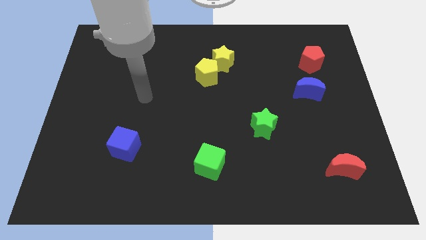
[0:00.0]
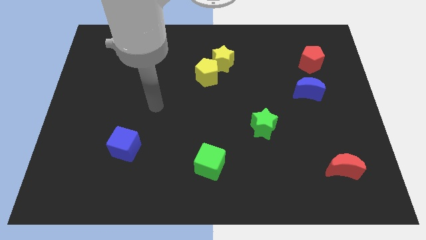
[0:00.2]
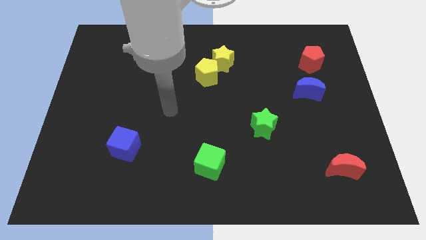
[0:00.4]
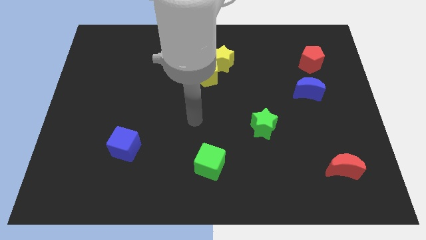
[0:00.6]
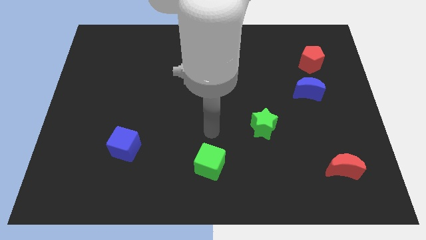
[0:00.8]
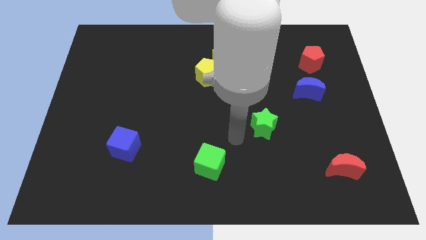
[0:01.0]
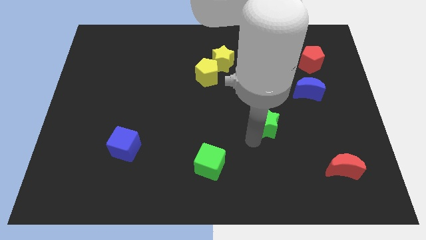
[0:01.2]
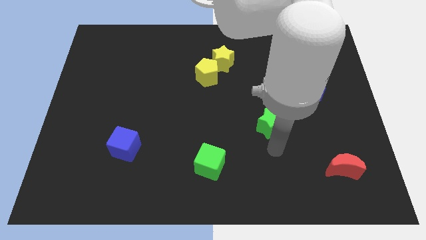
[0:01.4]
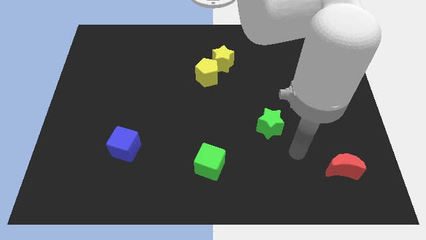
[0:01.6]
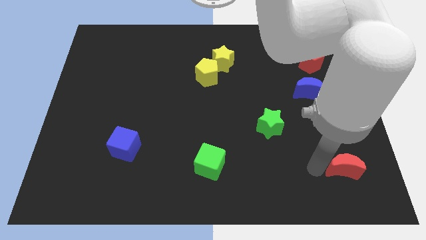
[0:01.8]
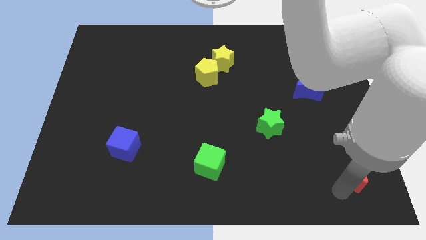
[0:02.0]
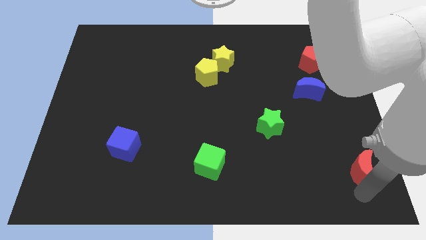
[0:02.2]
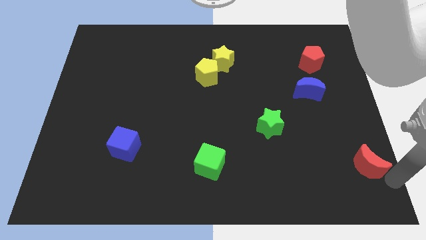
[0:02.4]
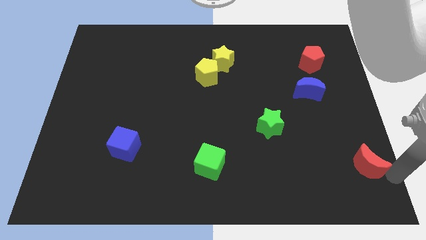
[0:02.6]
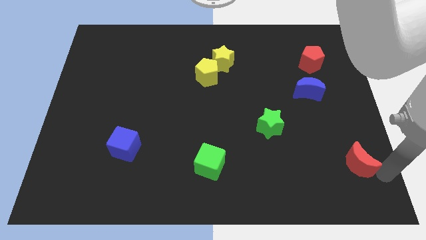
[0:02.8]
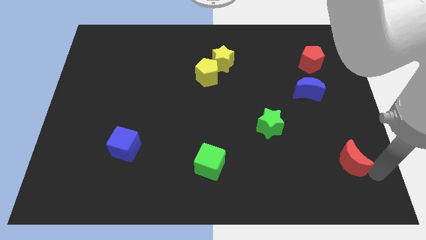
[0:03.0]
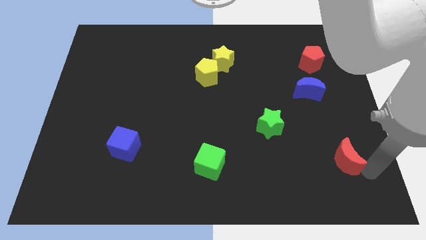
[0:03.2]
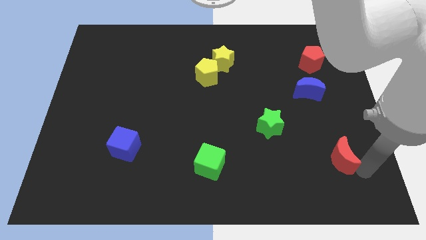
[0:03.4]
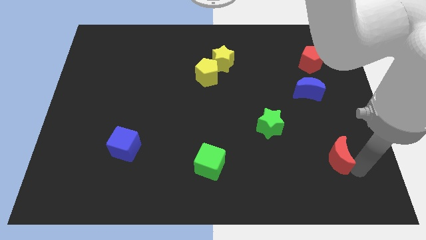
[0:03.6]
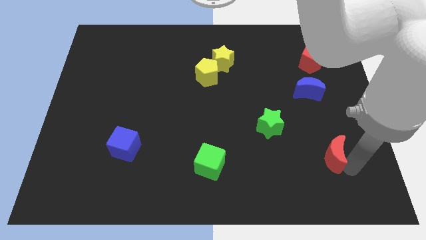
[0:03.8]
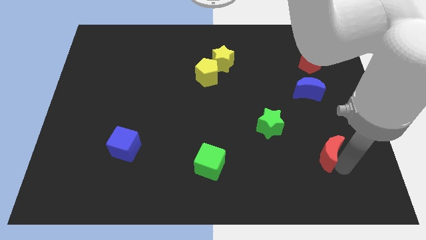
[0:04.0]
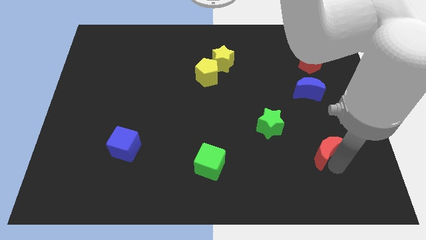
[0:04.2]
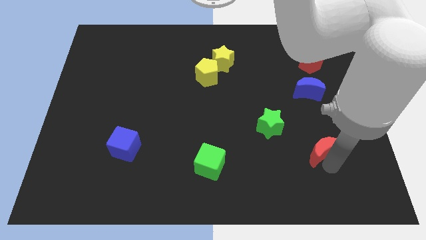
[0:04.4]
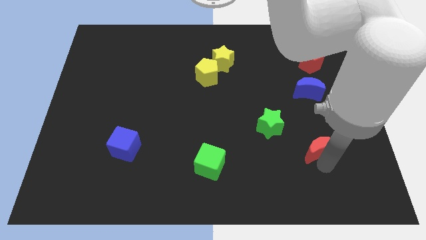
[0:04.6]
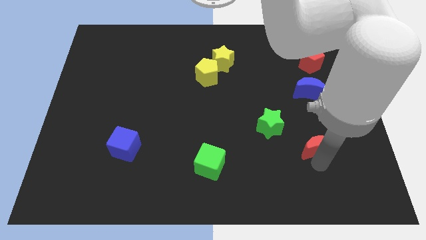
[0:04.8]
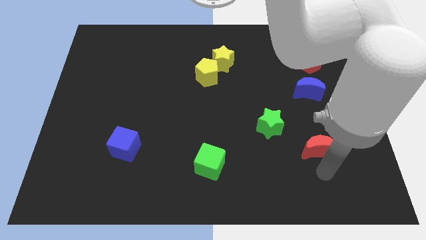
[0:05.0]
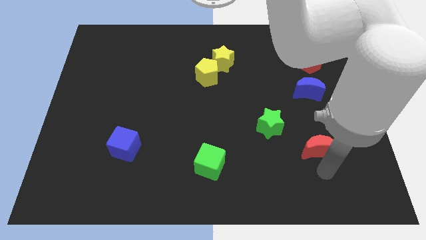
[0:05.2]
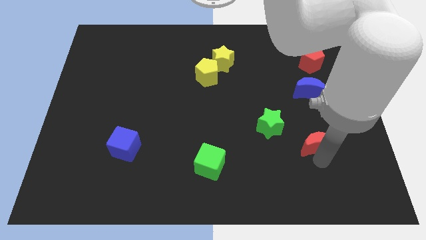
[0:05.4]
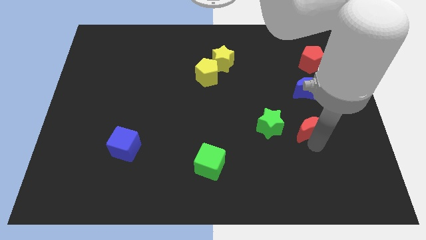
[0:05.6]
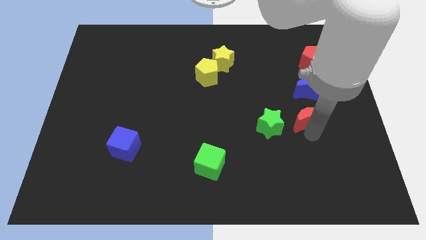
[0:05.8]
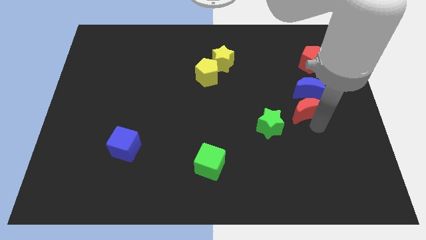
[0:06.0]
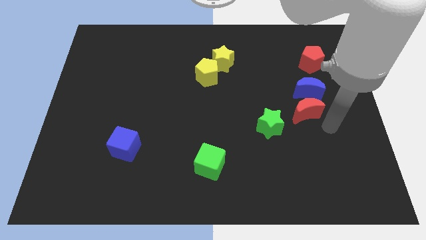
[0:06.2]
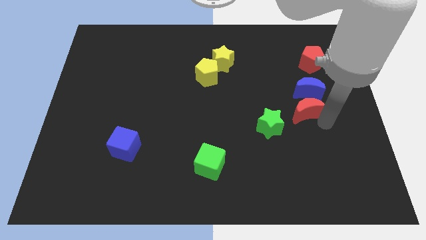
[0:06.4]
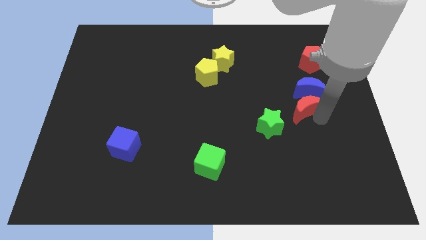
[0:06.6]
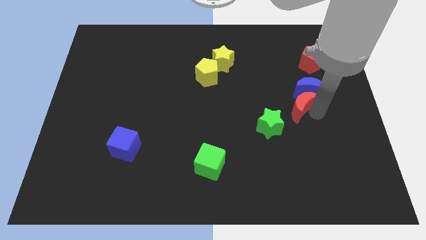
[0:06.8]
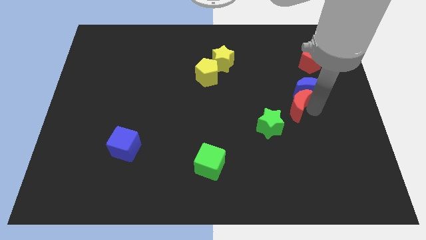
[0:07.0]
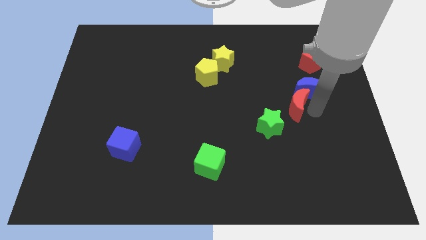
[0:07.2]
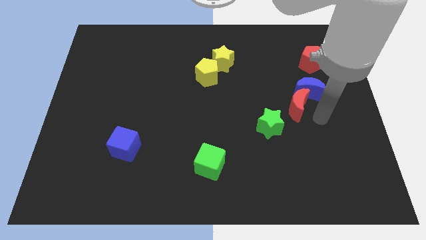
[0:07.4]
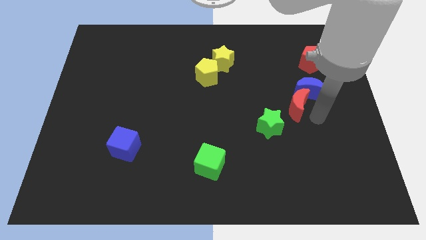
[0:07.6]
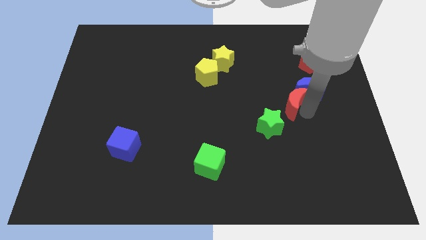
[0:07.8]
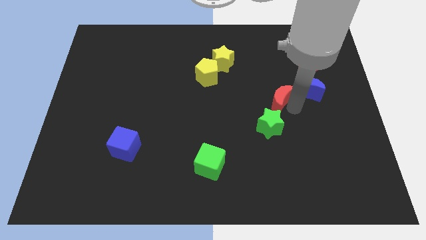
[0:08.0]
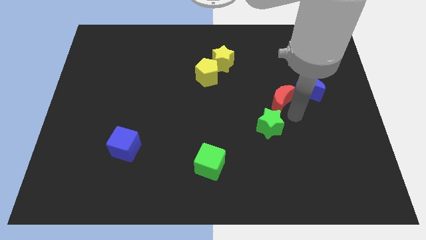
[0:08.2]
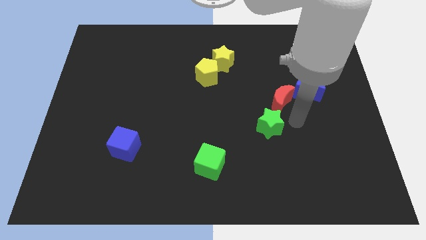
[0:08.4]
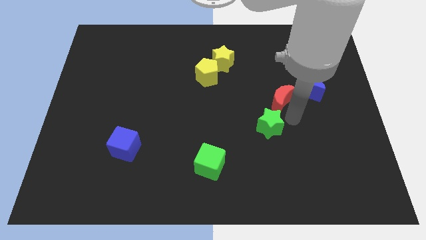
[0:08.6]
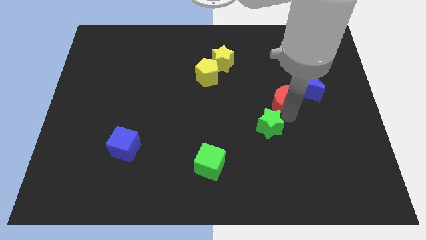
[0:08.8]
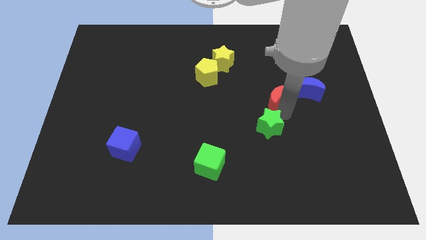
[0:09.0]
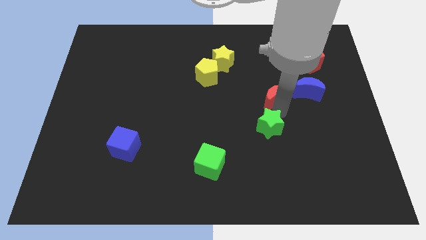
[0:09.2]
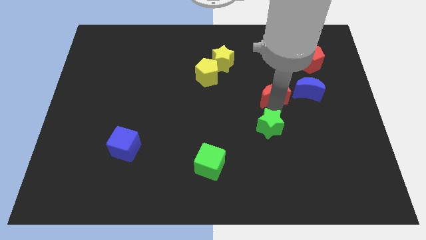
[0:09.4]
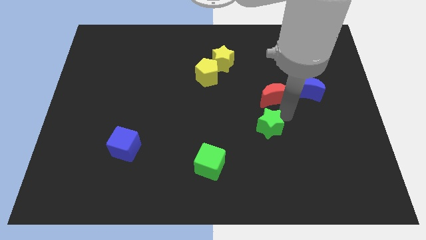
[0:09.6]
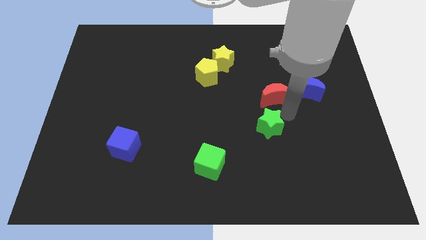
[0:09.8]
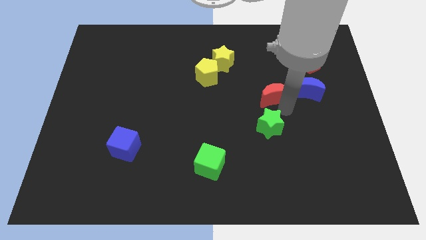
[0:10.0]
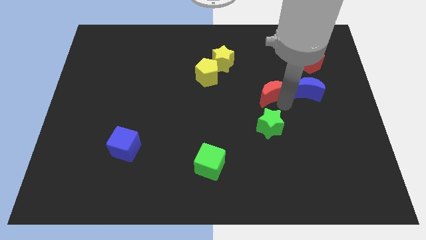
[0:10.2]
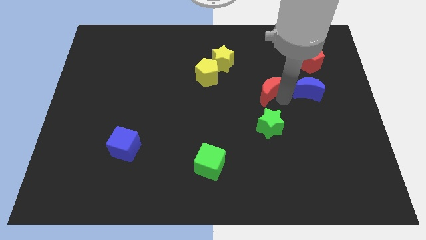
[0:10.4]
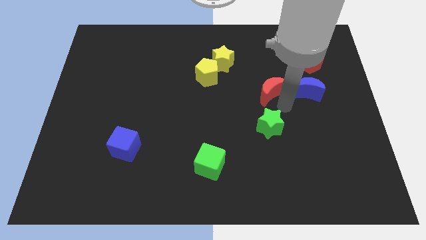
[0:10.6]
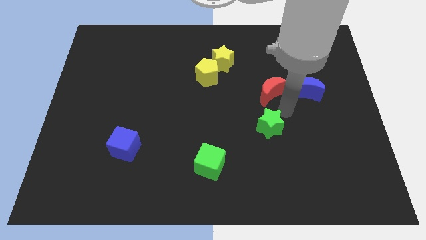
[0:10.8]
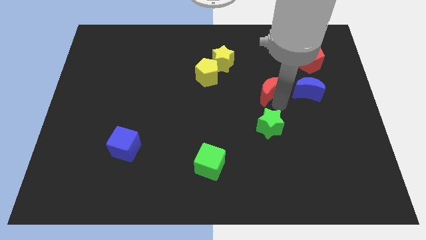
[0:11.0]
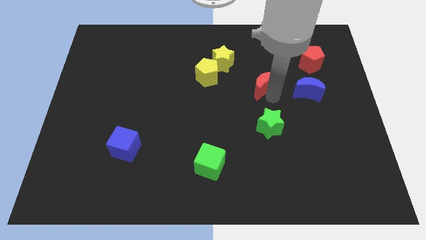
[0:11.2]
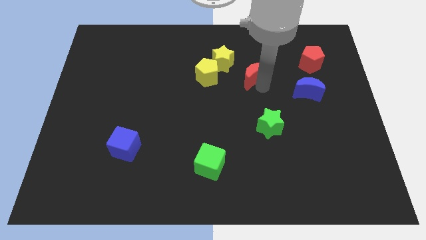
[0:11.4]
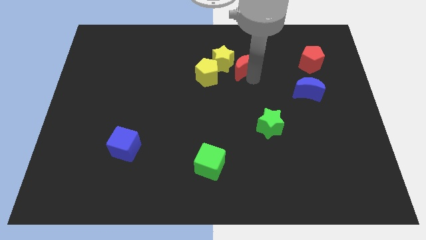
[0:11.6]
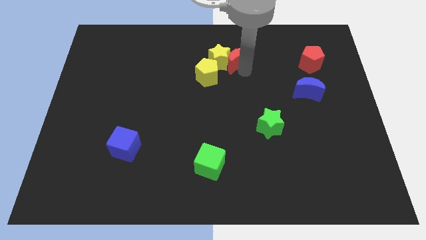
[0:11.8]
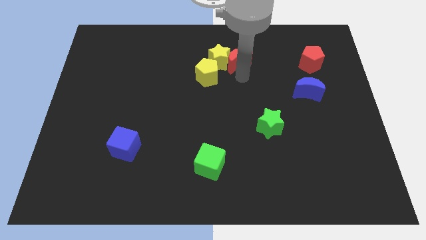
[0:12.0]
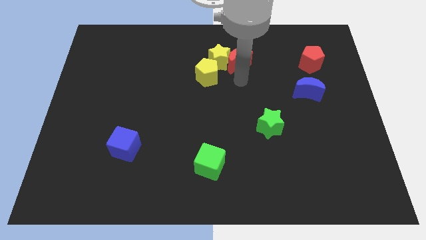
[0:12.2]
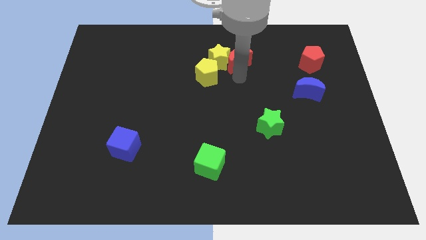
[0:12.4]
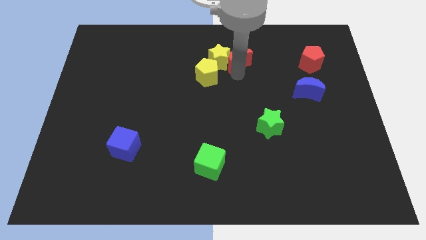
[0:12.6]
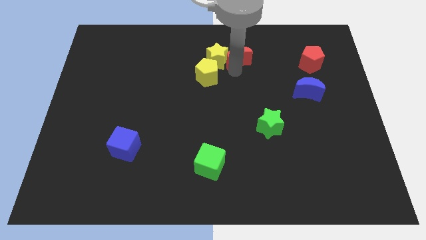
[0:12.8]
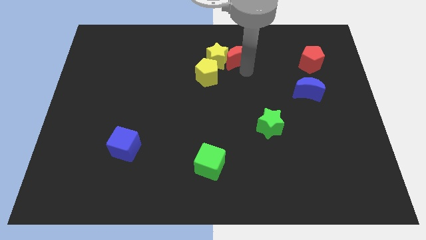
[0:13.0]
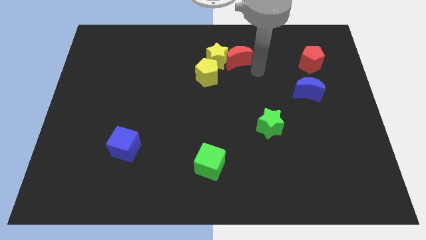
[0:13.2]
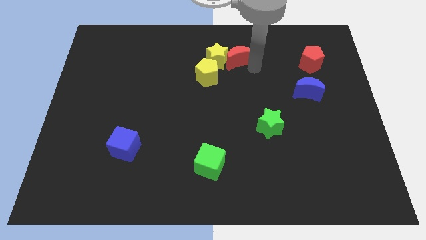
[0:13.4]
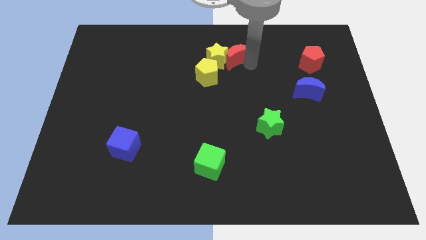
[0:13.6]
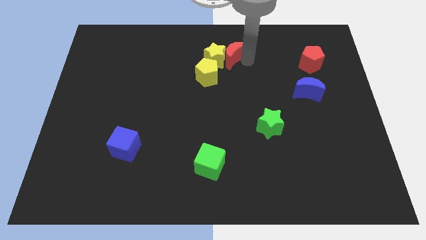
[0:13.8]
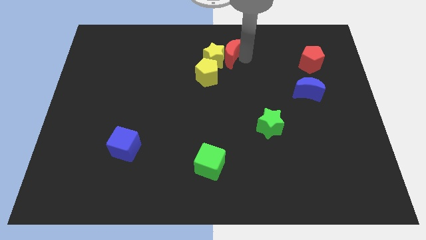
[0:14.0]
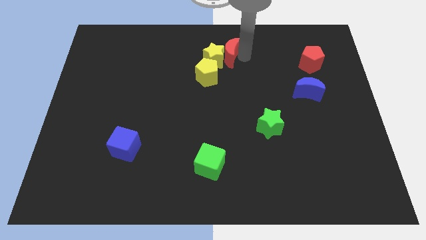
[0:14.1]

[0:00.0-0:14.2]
slide the red moon to the top
